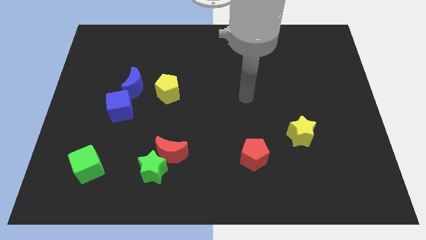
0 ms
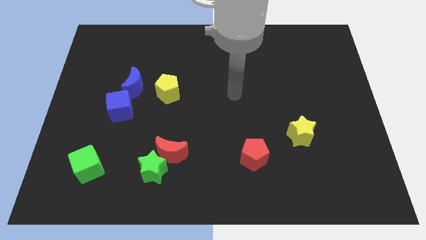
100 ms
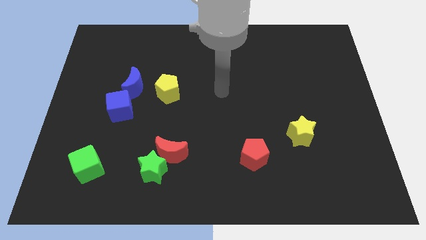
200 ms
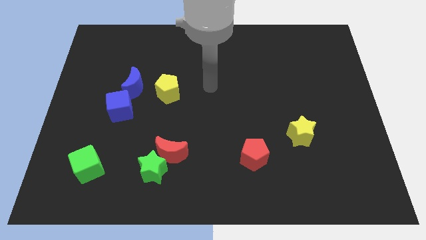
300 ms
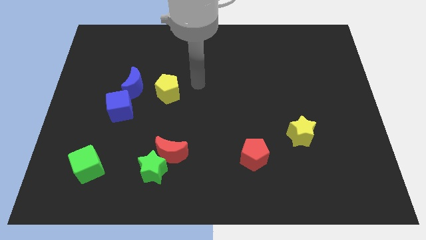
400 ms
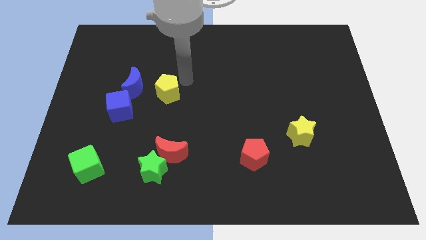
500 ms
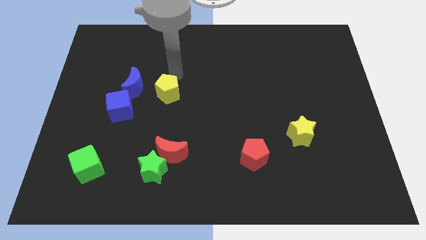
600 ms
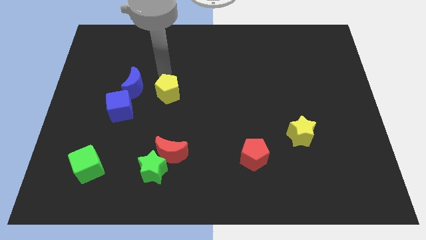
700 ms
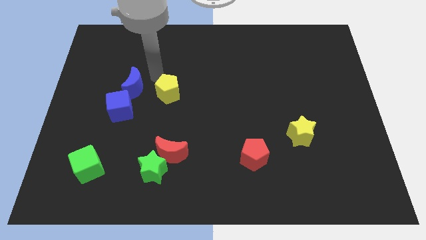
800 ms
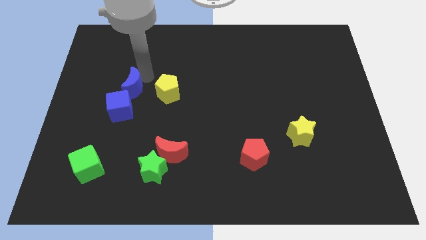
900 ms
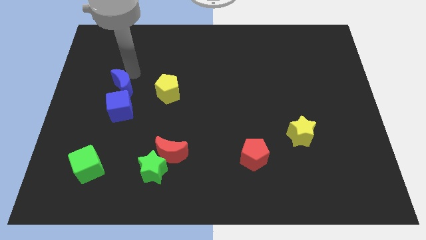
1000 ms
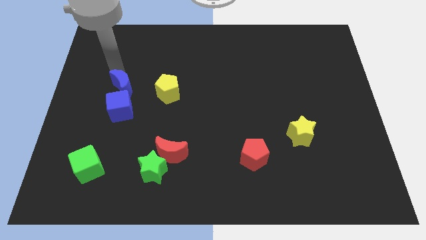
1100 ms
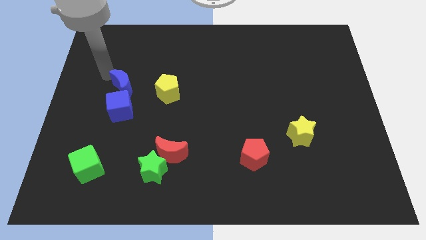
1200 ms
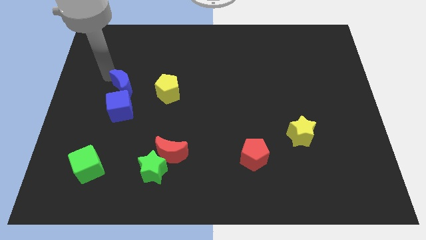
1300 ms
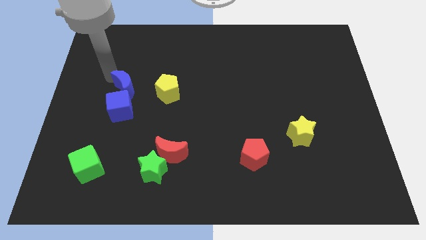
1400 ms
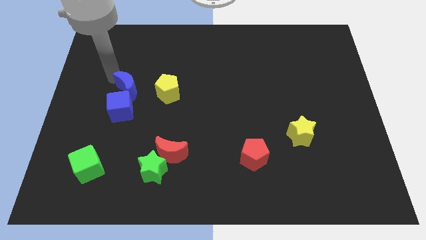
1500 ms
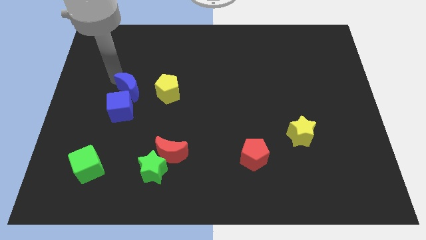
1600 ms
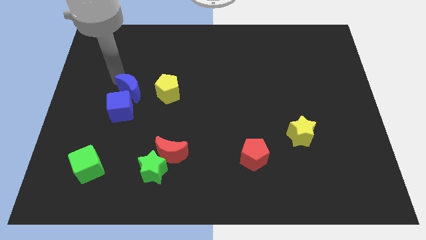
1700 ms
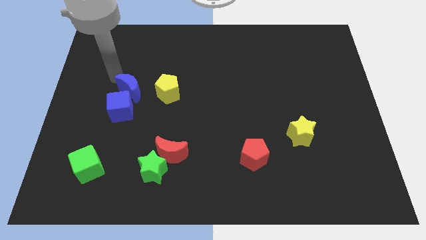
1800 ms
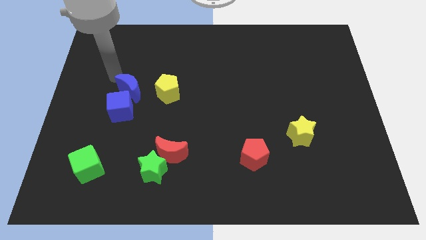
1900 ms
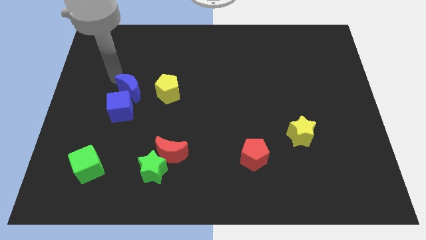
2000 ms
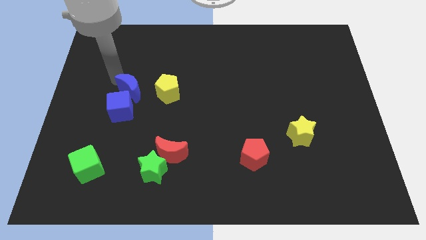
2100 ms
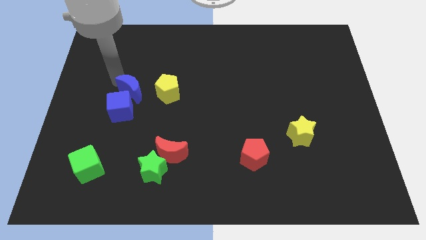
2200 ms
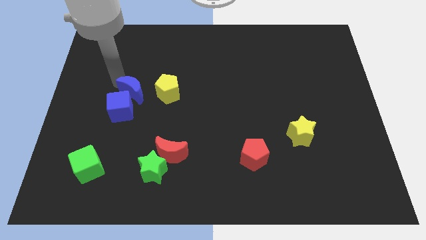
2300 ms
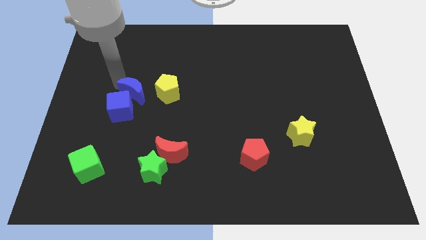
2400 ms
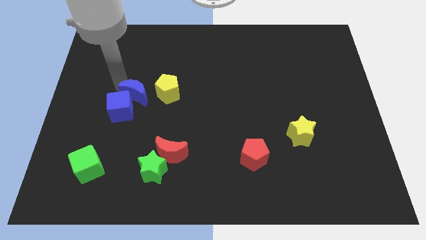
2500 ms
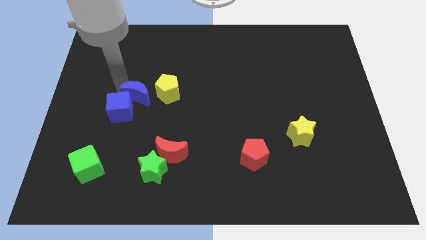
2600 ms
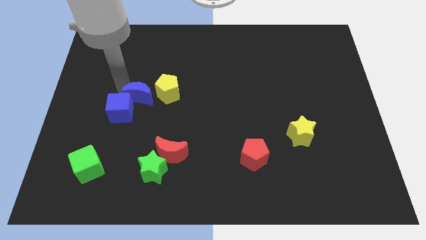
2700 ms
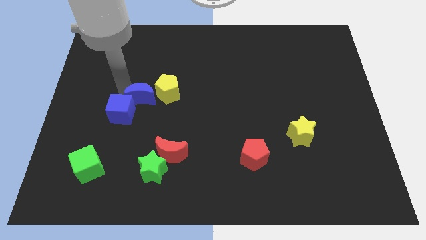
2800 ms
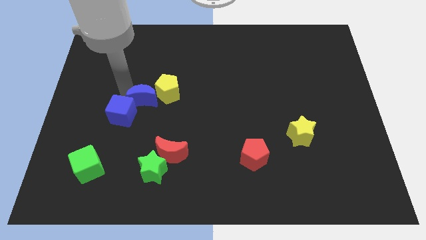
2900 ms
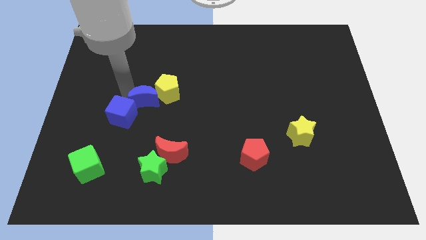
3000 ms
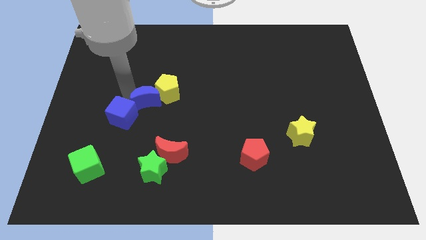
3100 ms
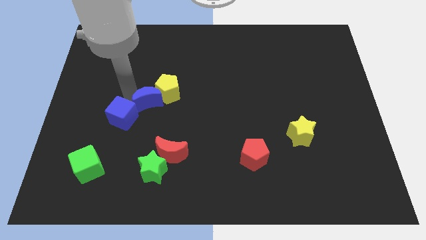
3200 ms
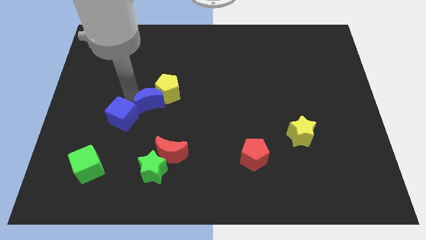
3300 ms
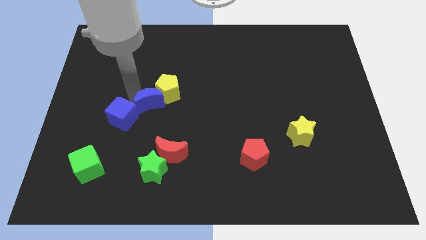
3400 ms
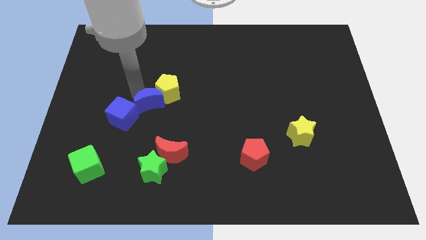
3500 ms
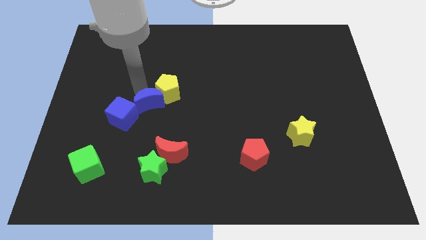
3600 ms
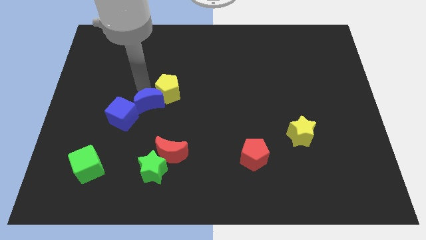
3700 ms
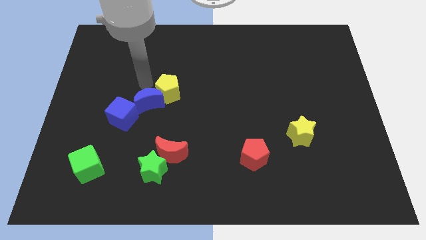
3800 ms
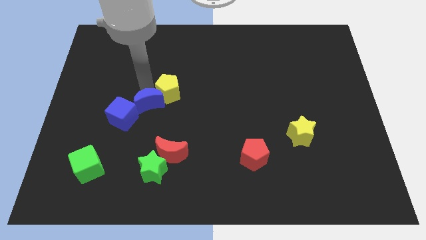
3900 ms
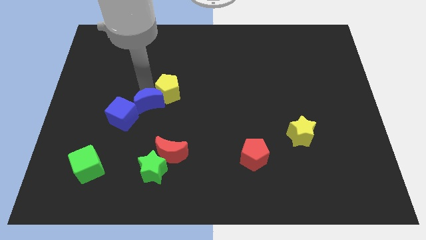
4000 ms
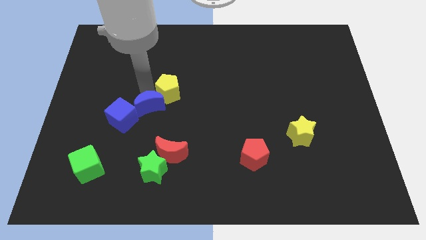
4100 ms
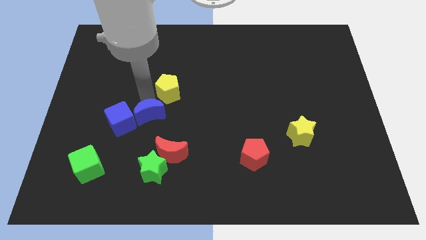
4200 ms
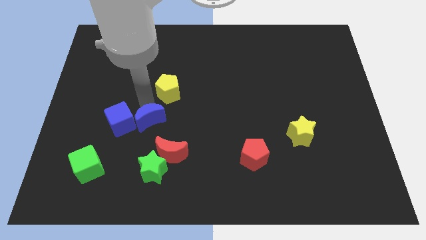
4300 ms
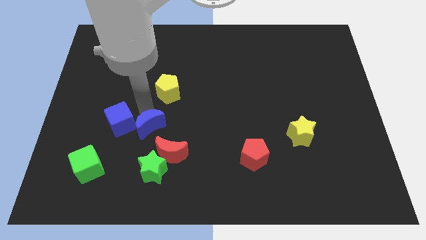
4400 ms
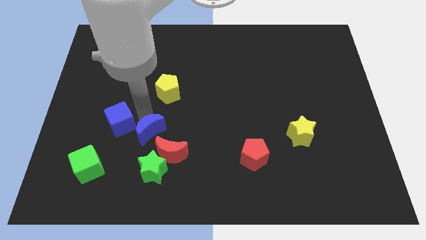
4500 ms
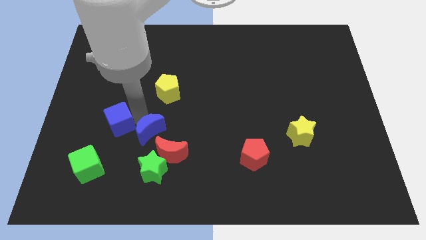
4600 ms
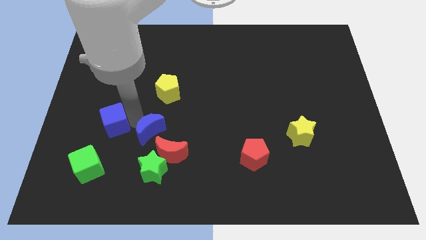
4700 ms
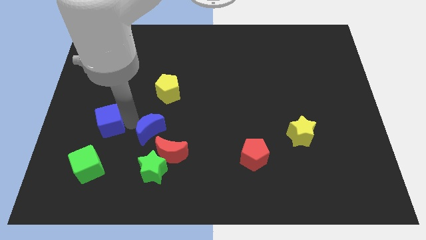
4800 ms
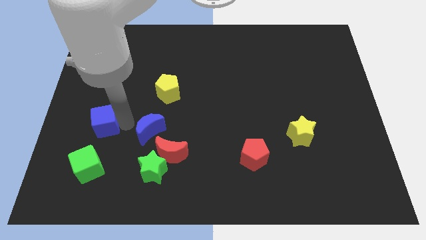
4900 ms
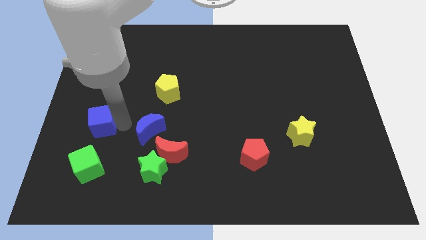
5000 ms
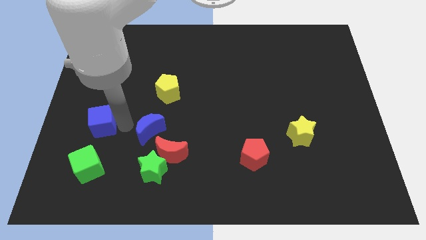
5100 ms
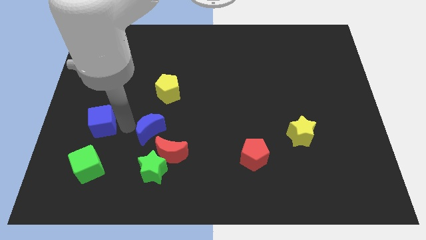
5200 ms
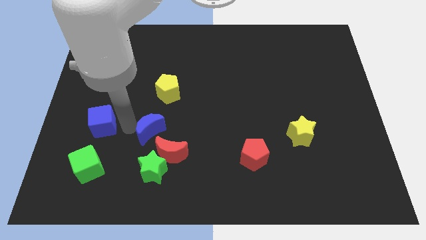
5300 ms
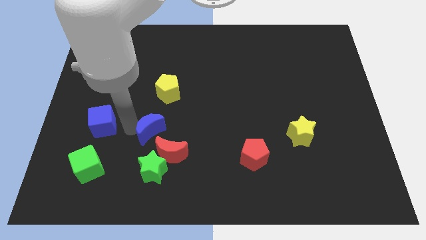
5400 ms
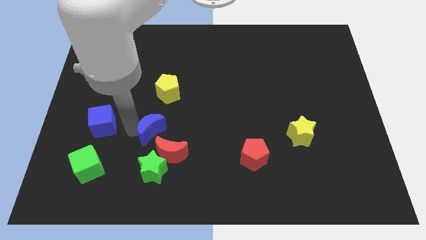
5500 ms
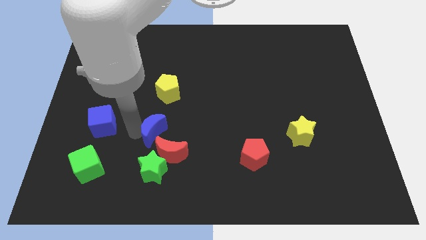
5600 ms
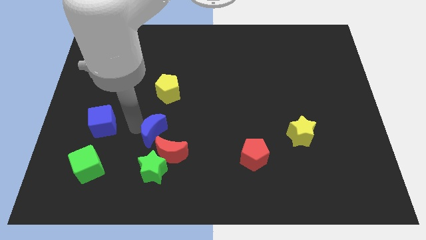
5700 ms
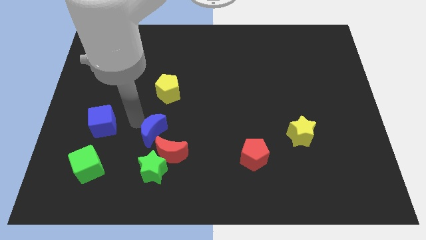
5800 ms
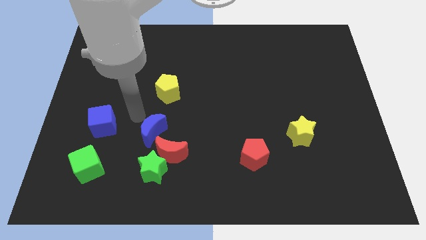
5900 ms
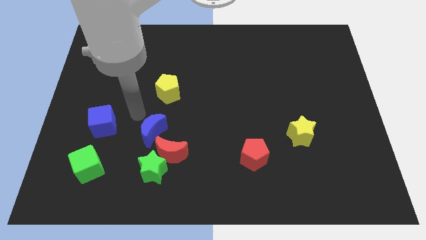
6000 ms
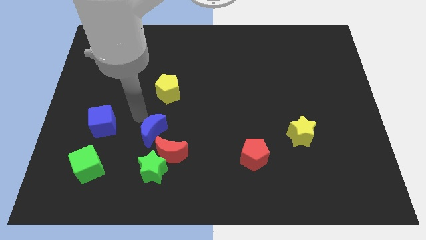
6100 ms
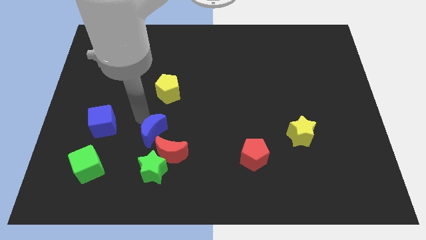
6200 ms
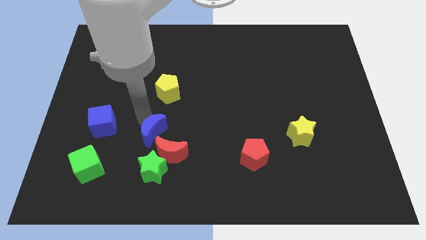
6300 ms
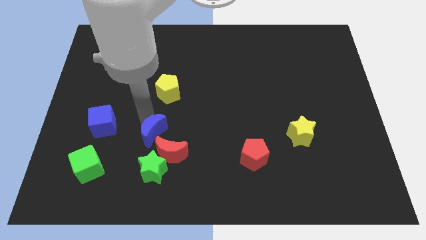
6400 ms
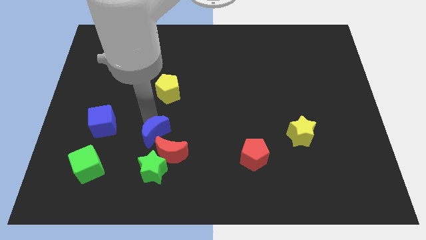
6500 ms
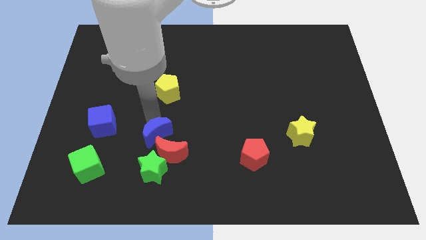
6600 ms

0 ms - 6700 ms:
put the blue moon next to the red moon
